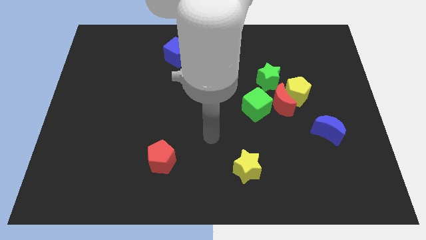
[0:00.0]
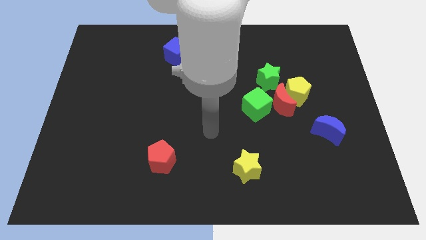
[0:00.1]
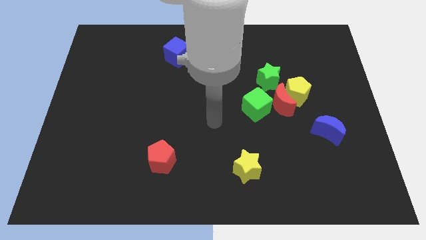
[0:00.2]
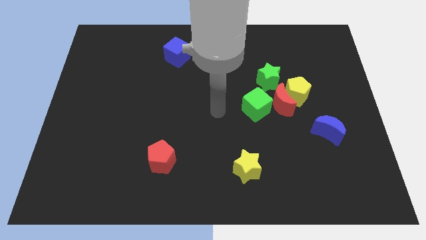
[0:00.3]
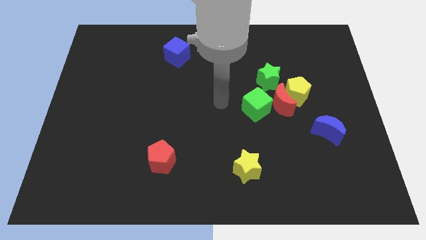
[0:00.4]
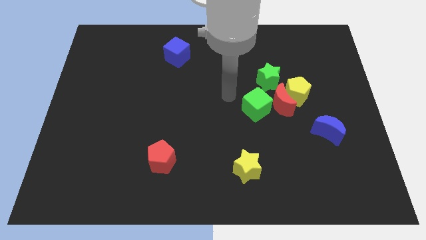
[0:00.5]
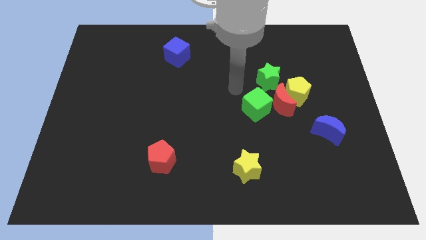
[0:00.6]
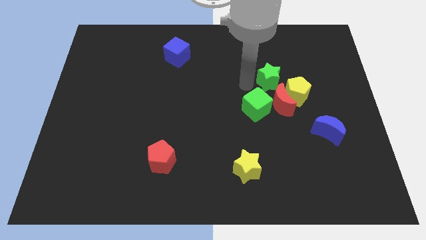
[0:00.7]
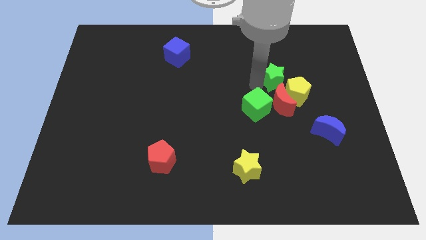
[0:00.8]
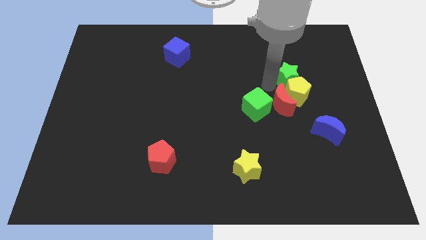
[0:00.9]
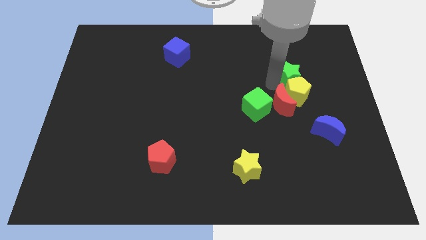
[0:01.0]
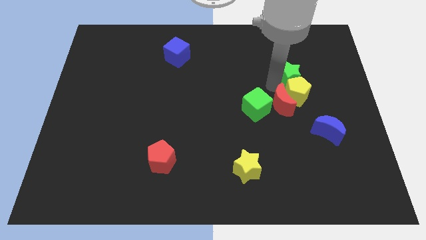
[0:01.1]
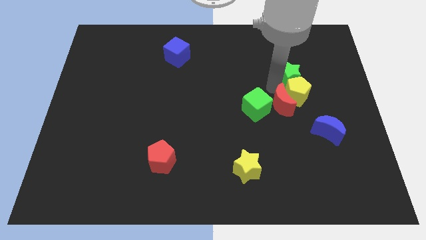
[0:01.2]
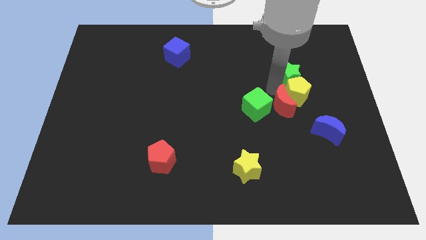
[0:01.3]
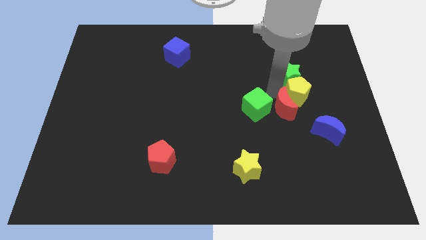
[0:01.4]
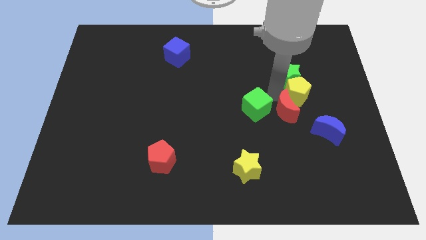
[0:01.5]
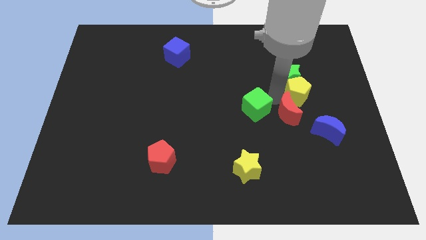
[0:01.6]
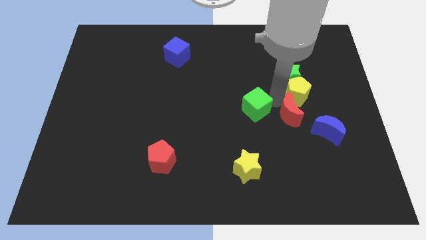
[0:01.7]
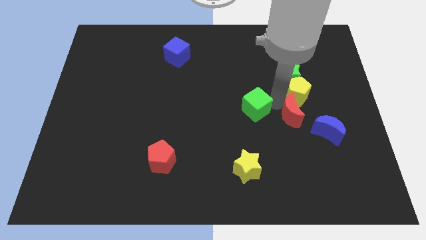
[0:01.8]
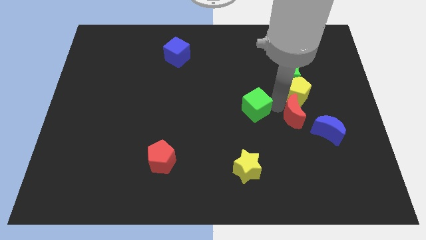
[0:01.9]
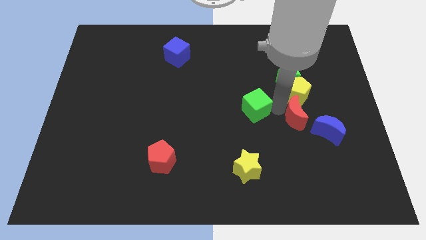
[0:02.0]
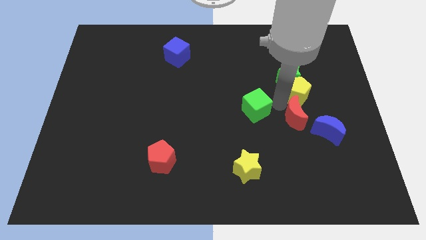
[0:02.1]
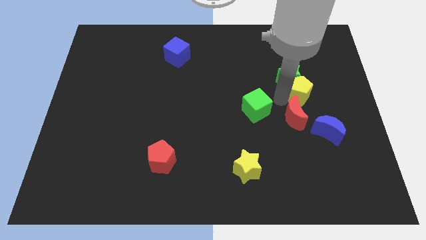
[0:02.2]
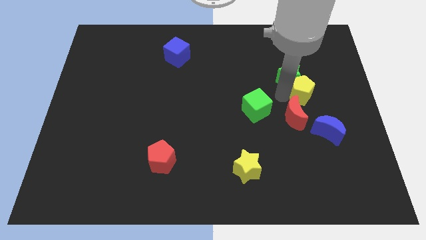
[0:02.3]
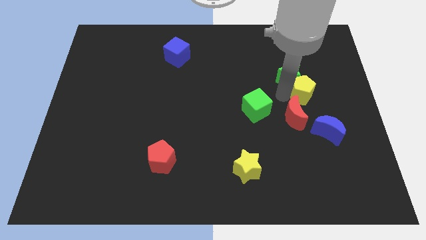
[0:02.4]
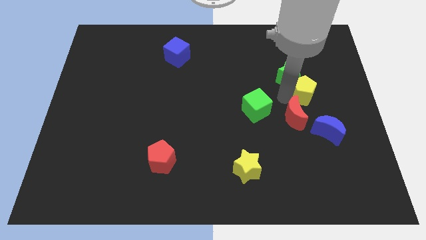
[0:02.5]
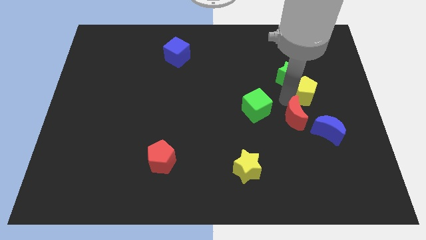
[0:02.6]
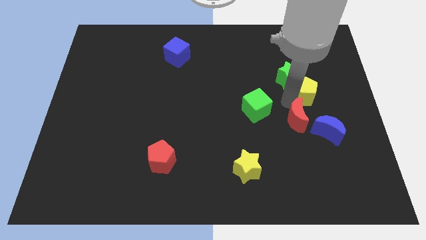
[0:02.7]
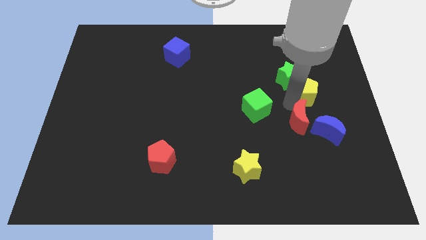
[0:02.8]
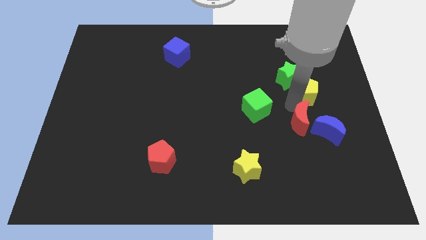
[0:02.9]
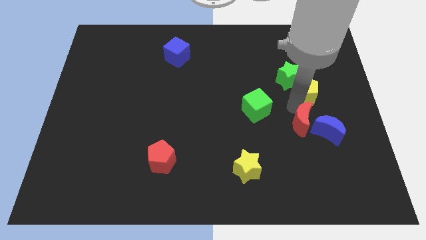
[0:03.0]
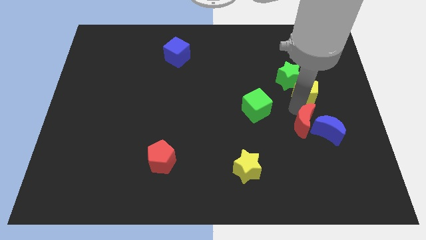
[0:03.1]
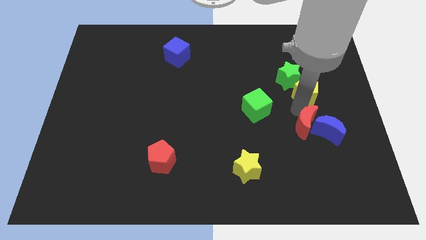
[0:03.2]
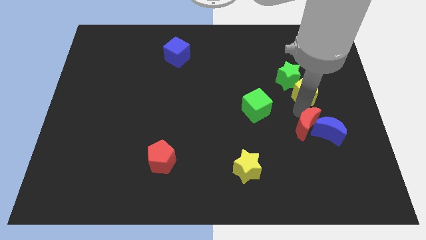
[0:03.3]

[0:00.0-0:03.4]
pull the red moon apart from the yellow pentagon, green cube, and green star

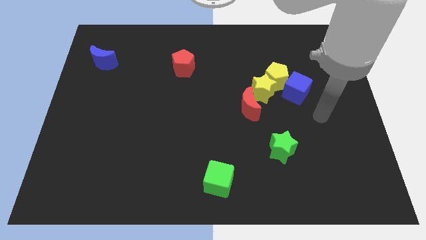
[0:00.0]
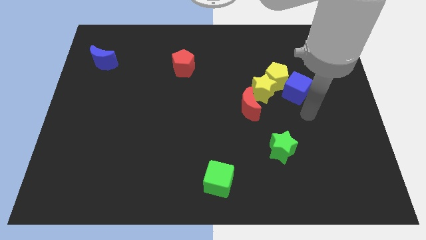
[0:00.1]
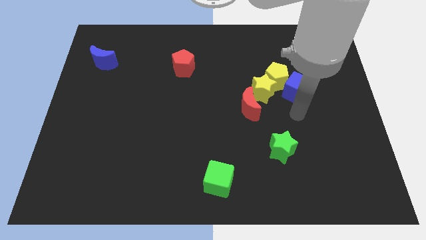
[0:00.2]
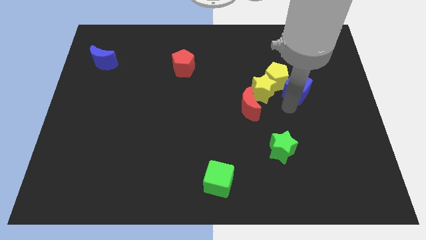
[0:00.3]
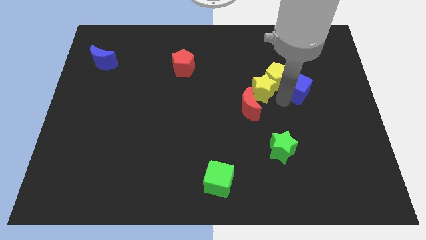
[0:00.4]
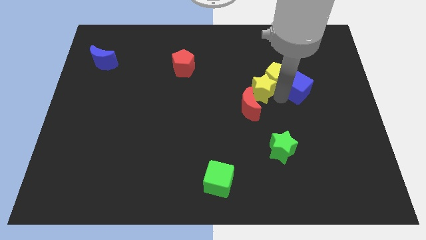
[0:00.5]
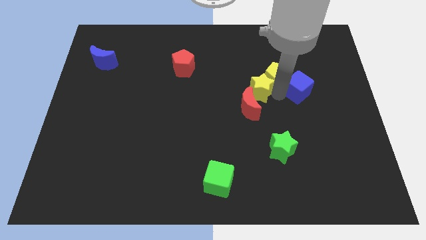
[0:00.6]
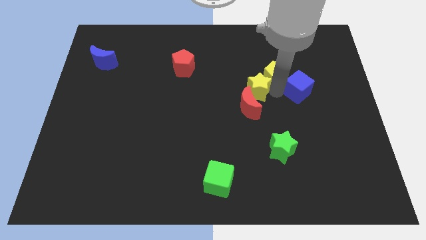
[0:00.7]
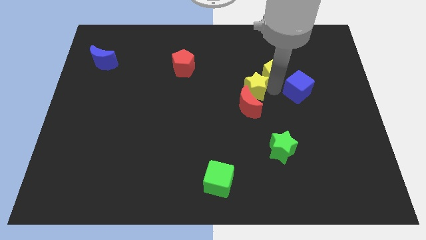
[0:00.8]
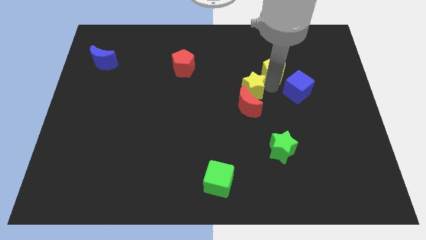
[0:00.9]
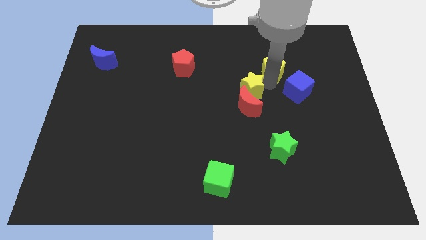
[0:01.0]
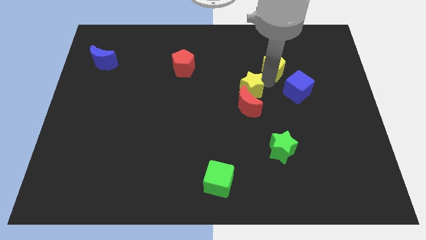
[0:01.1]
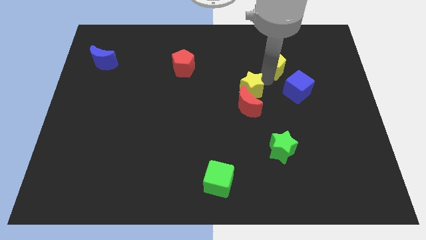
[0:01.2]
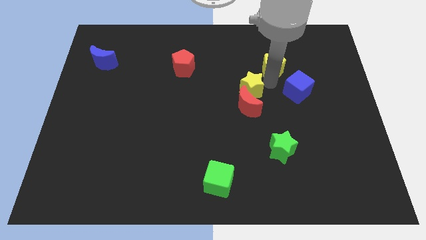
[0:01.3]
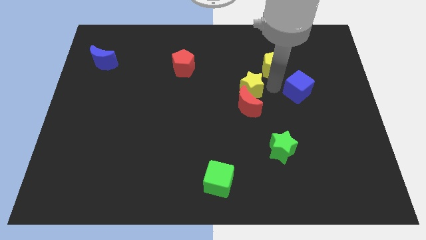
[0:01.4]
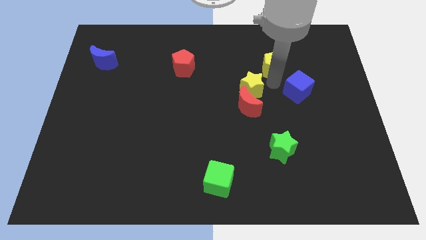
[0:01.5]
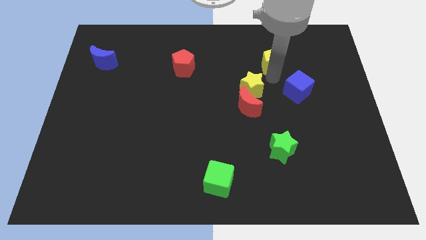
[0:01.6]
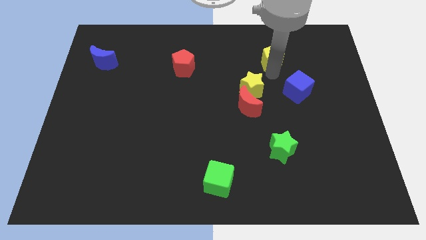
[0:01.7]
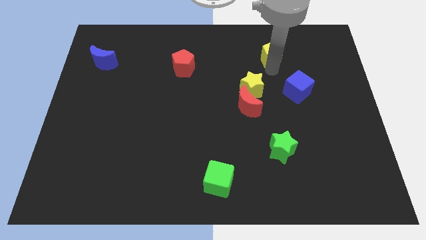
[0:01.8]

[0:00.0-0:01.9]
move the yellow pentagon away from the yellow star and blue cube

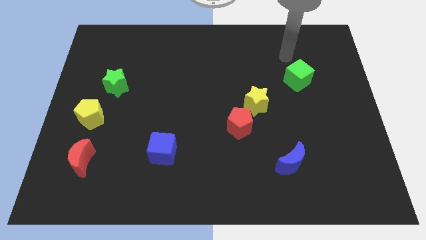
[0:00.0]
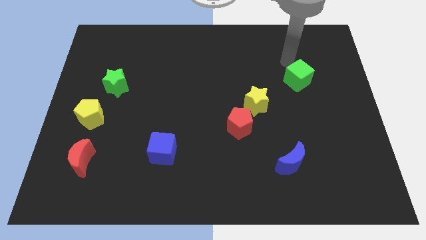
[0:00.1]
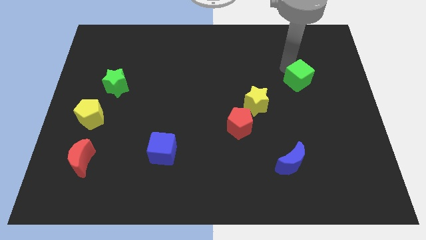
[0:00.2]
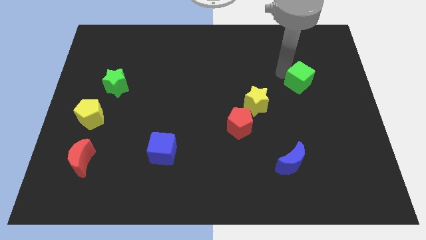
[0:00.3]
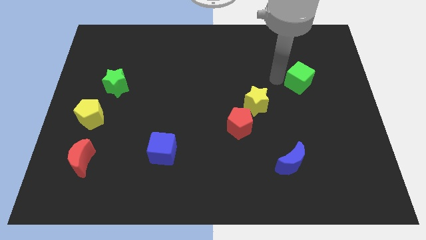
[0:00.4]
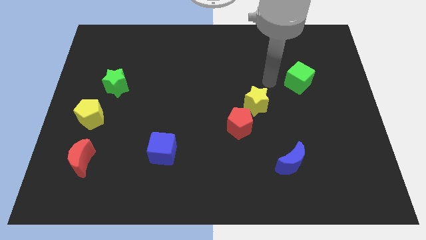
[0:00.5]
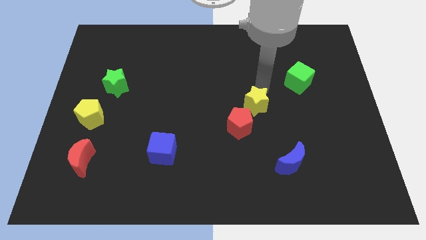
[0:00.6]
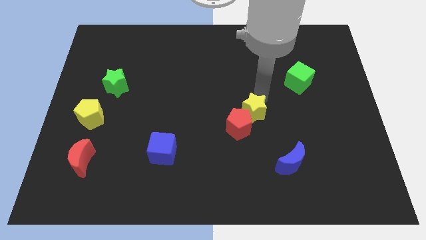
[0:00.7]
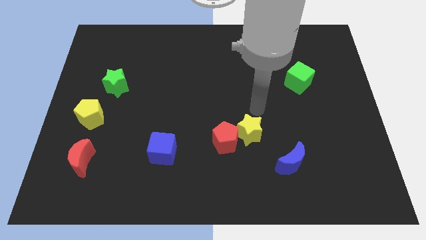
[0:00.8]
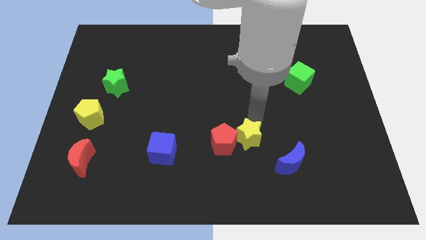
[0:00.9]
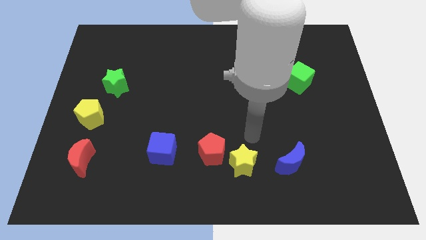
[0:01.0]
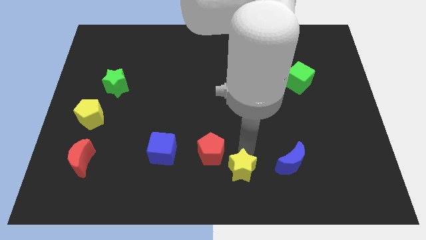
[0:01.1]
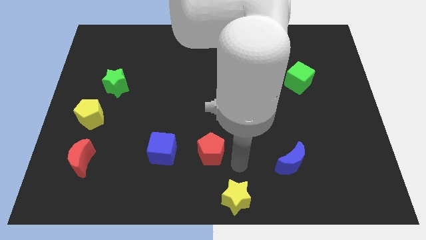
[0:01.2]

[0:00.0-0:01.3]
move the red pentagon away from the yellow star

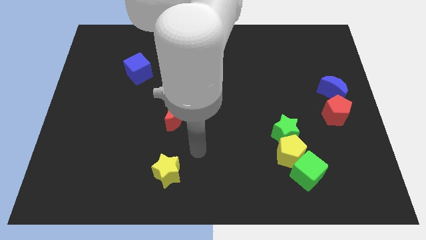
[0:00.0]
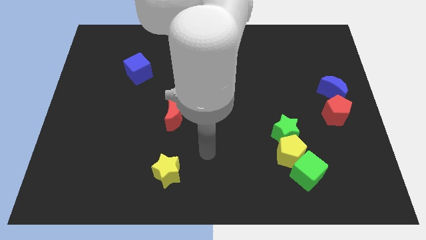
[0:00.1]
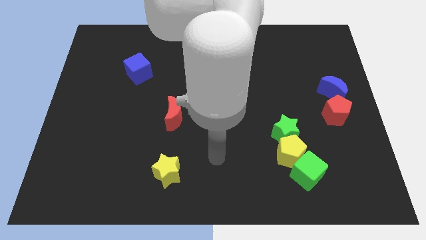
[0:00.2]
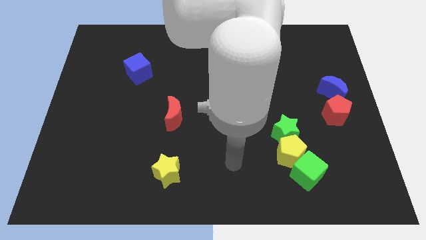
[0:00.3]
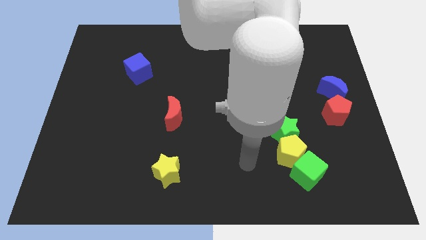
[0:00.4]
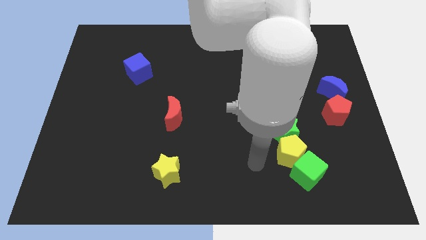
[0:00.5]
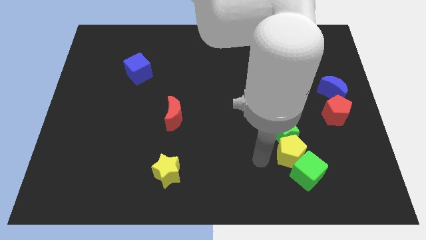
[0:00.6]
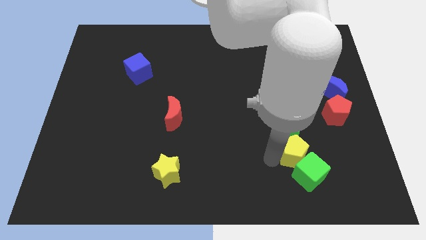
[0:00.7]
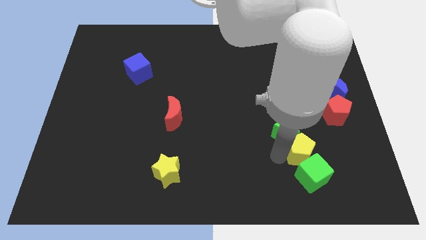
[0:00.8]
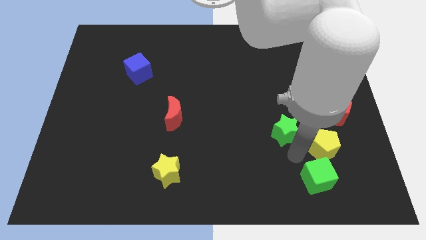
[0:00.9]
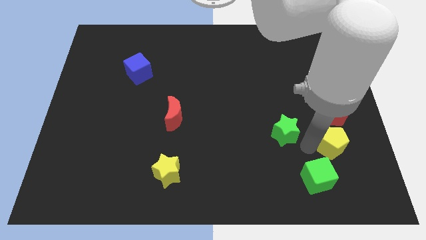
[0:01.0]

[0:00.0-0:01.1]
separate the green star from the yellow pentagon

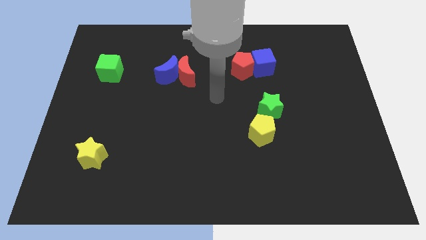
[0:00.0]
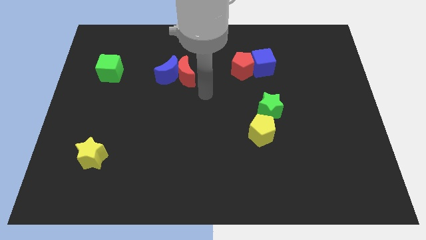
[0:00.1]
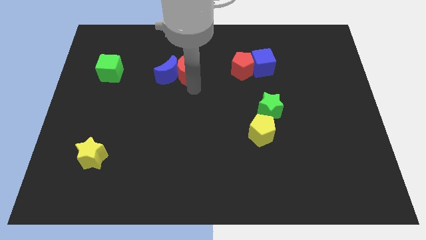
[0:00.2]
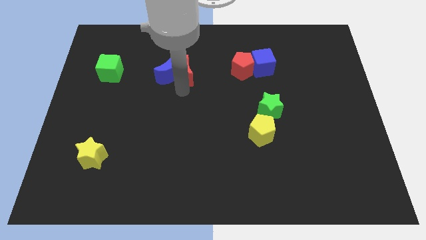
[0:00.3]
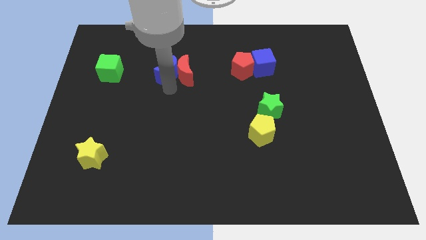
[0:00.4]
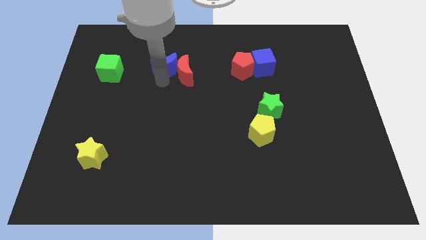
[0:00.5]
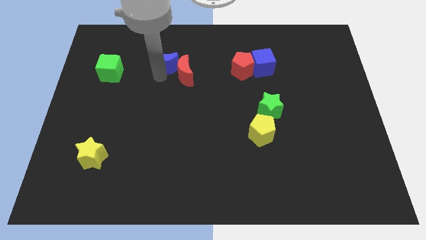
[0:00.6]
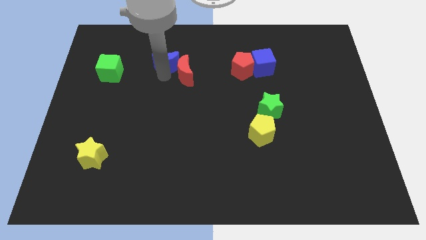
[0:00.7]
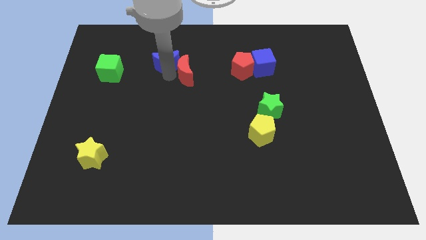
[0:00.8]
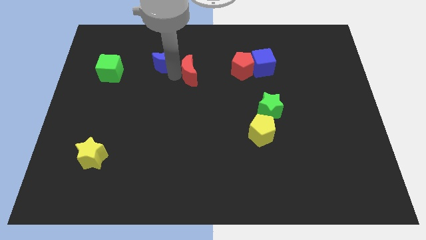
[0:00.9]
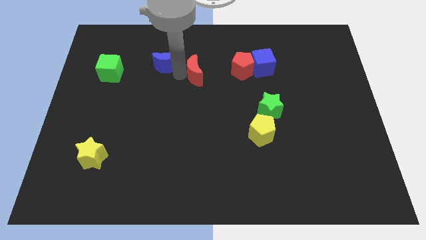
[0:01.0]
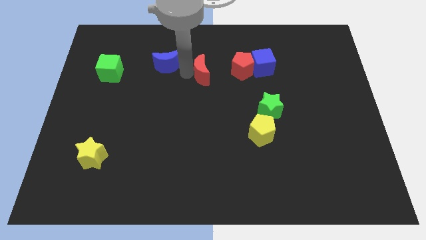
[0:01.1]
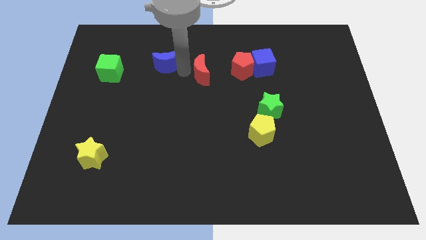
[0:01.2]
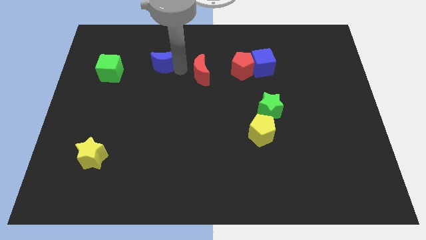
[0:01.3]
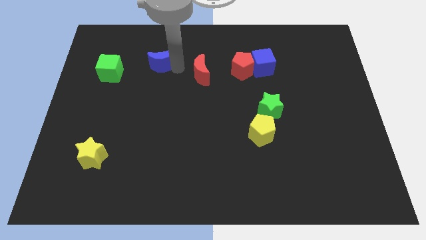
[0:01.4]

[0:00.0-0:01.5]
pull the red moon apart from the blue moon
